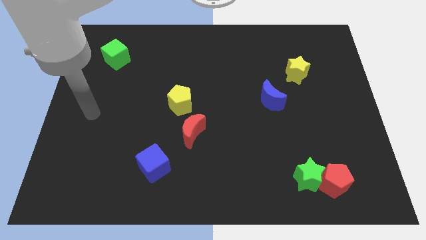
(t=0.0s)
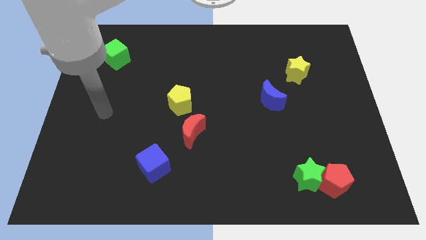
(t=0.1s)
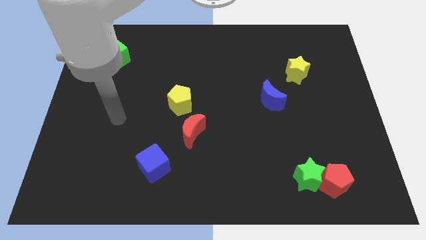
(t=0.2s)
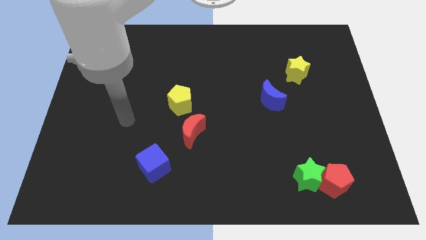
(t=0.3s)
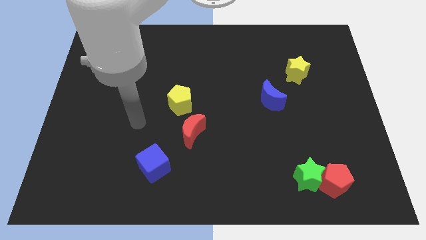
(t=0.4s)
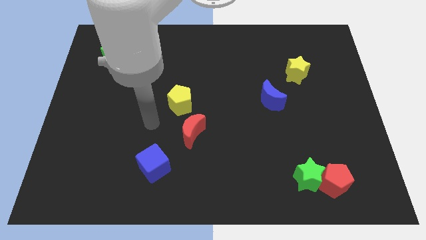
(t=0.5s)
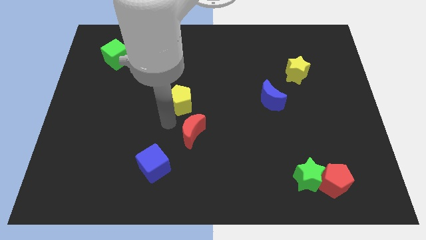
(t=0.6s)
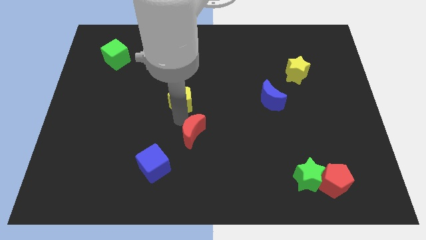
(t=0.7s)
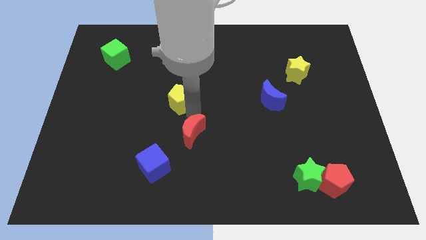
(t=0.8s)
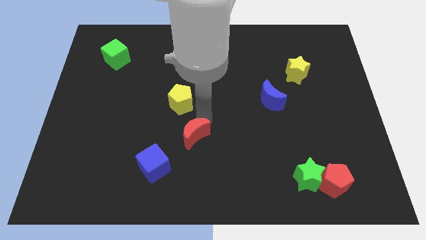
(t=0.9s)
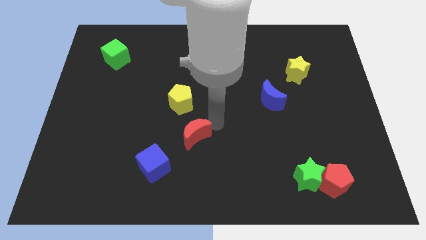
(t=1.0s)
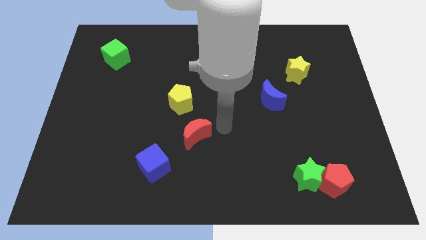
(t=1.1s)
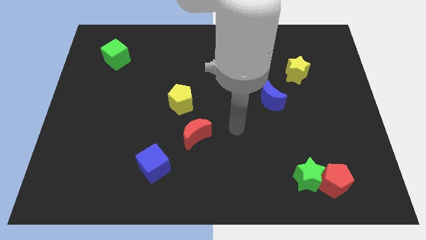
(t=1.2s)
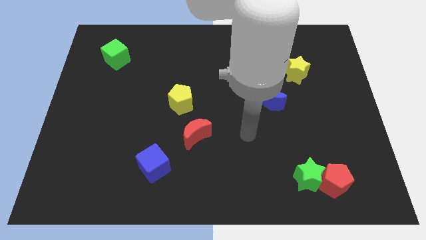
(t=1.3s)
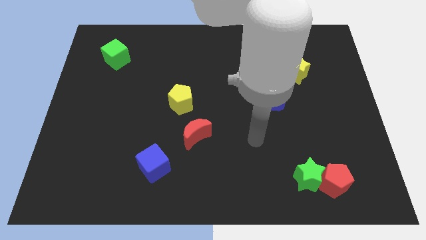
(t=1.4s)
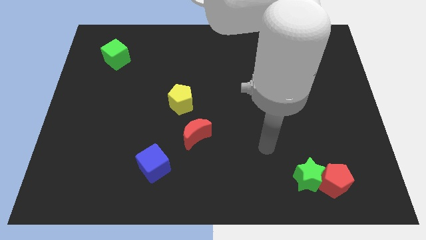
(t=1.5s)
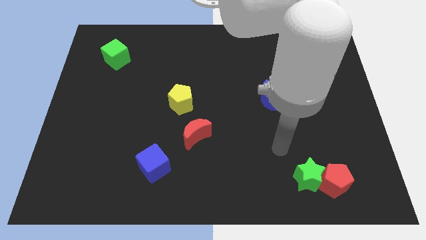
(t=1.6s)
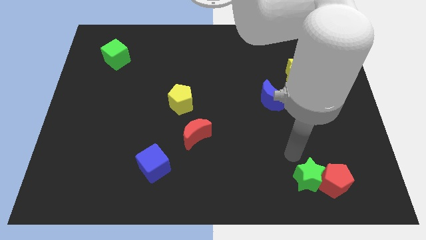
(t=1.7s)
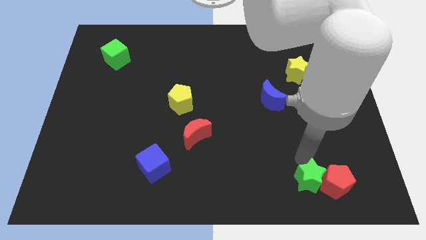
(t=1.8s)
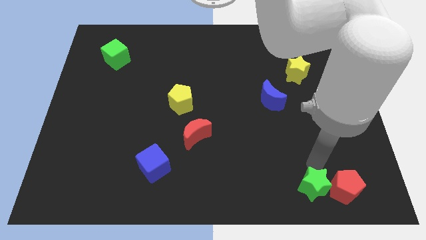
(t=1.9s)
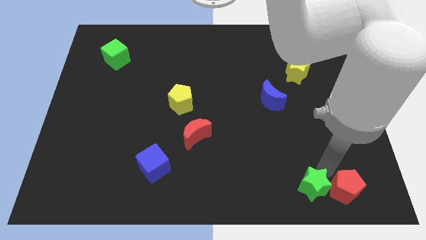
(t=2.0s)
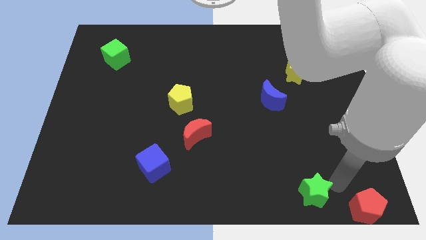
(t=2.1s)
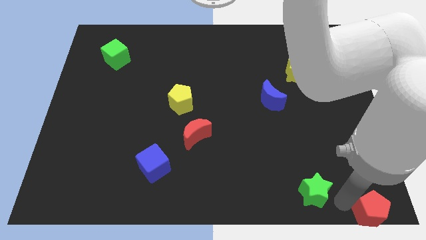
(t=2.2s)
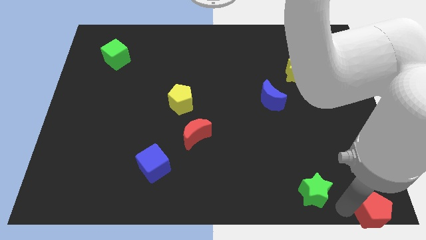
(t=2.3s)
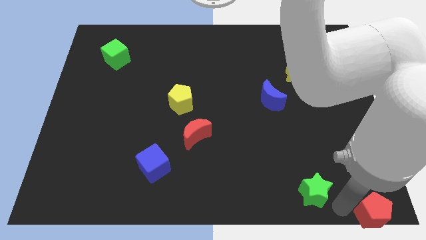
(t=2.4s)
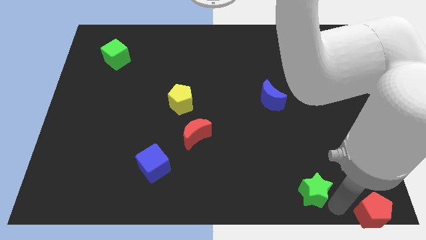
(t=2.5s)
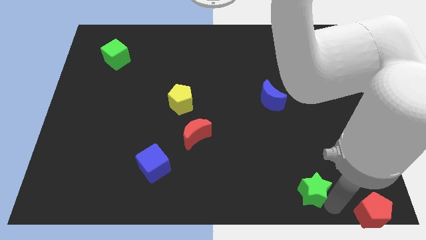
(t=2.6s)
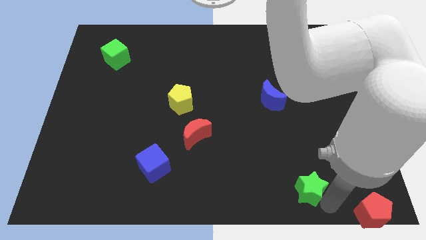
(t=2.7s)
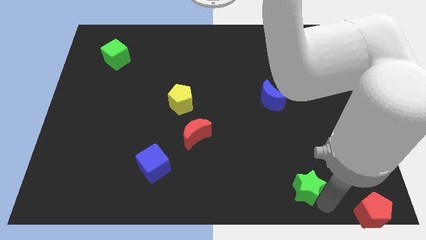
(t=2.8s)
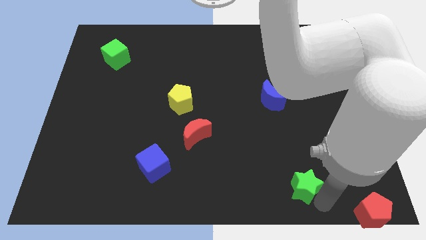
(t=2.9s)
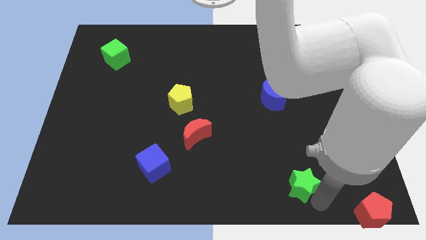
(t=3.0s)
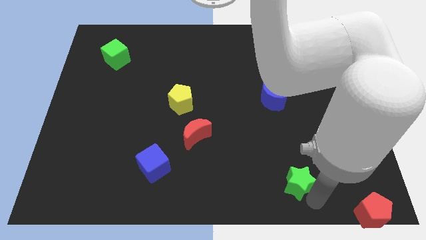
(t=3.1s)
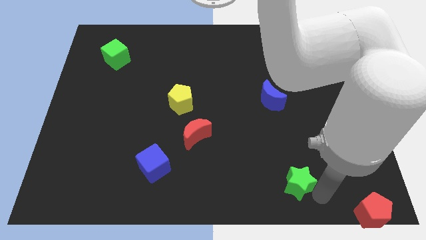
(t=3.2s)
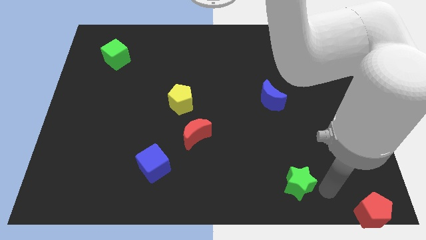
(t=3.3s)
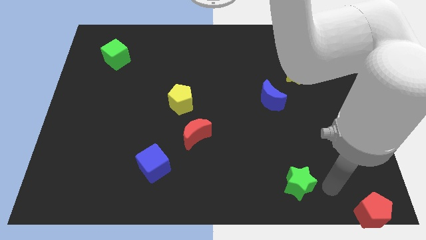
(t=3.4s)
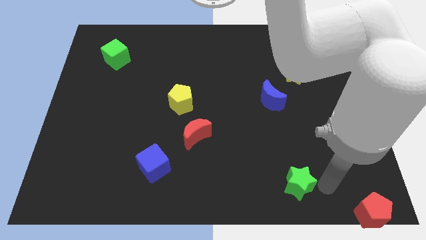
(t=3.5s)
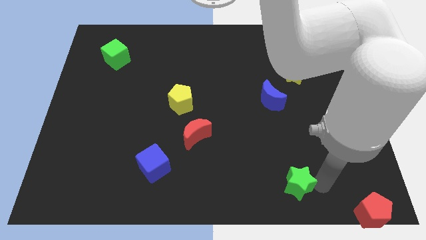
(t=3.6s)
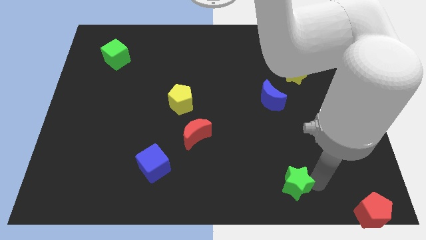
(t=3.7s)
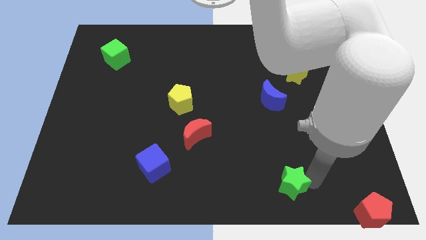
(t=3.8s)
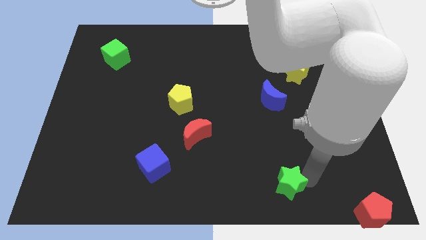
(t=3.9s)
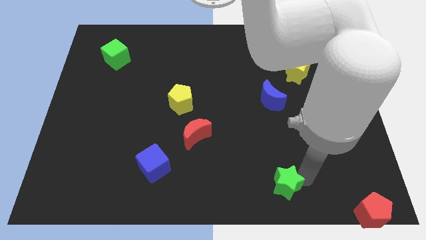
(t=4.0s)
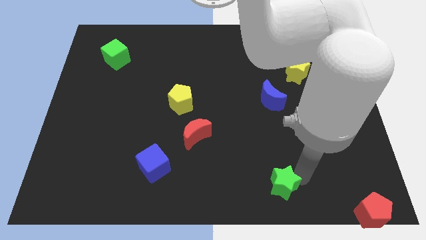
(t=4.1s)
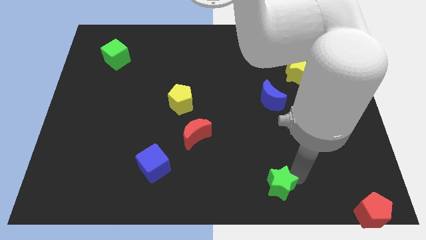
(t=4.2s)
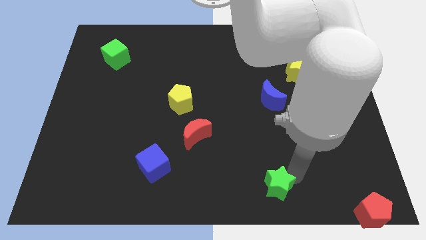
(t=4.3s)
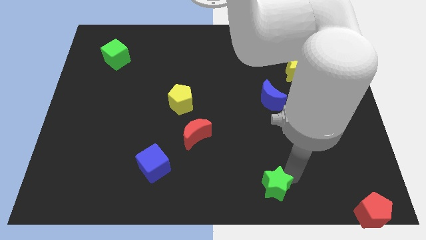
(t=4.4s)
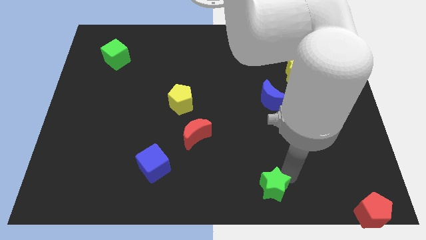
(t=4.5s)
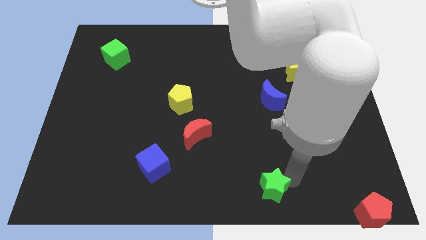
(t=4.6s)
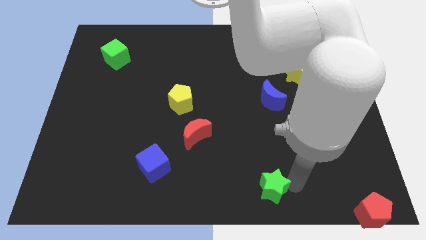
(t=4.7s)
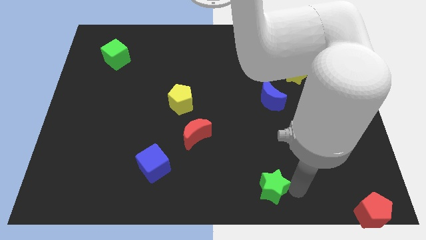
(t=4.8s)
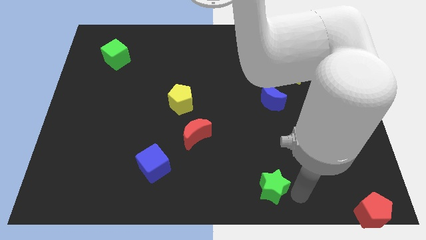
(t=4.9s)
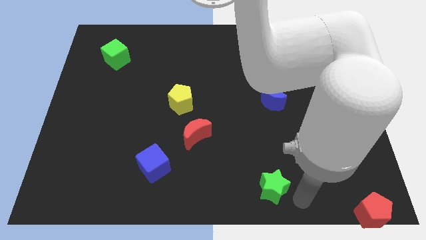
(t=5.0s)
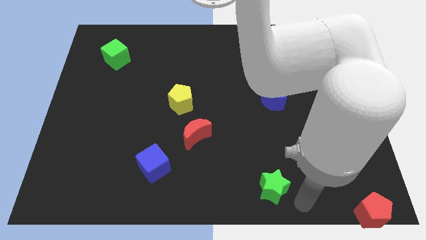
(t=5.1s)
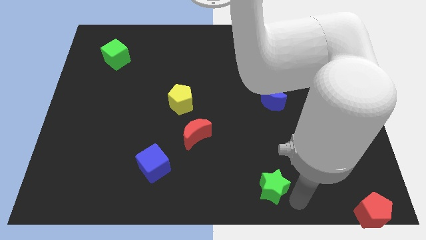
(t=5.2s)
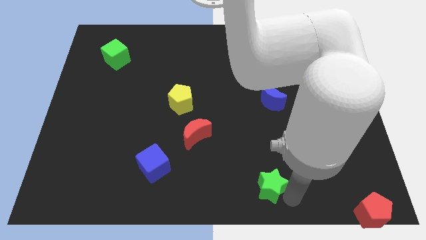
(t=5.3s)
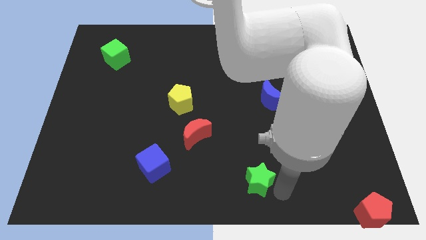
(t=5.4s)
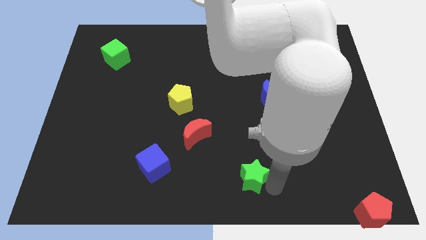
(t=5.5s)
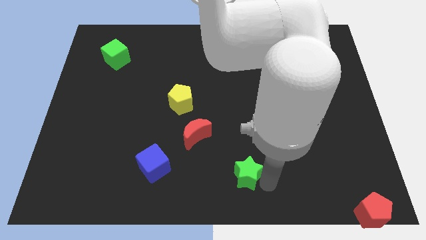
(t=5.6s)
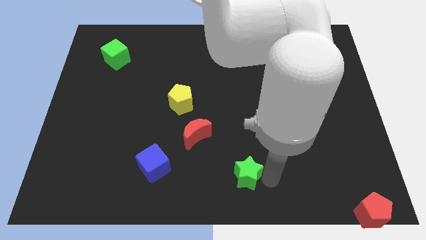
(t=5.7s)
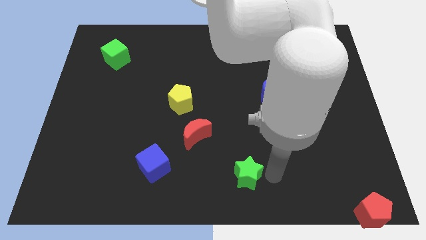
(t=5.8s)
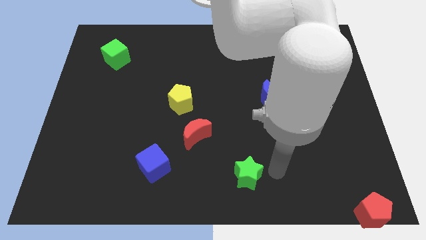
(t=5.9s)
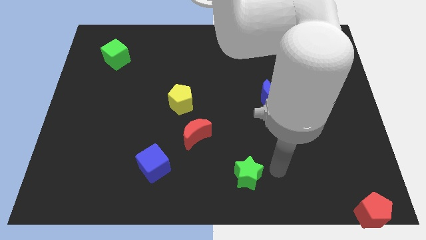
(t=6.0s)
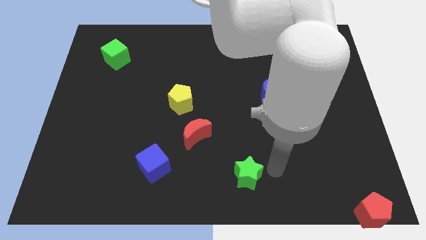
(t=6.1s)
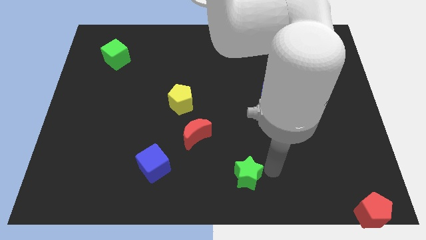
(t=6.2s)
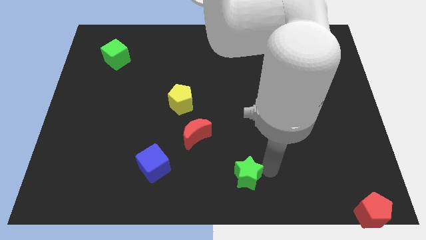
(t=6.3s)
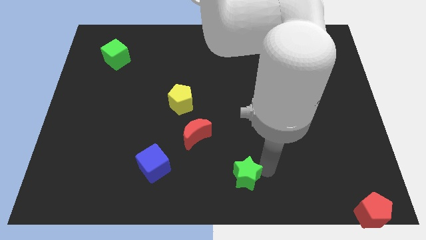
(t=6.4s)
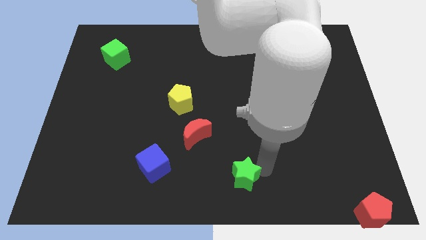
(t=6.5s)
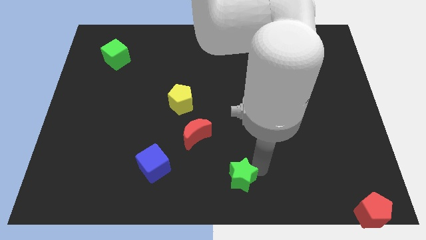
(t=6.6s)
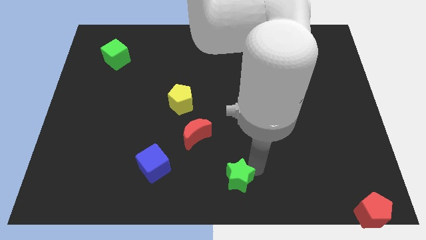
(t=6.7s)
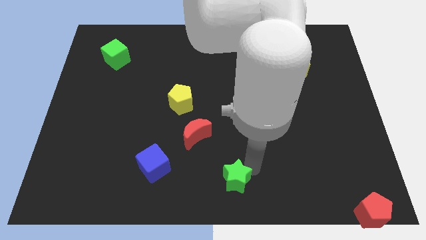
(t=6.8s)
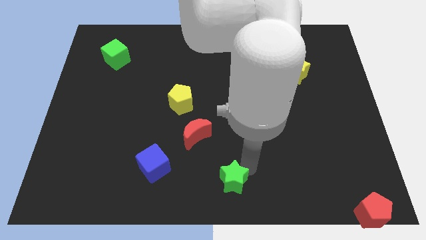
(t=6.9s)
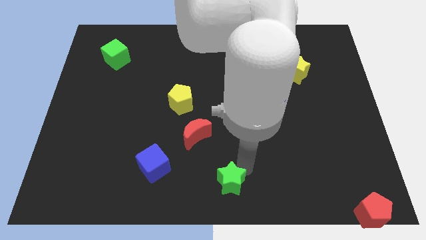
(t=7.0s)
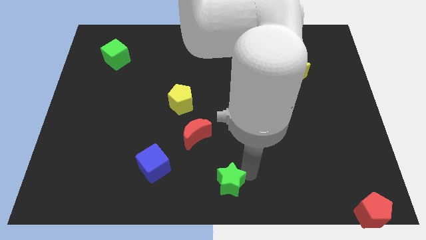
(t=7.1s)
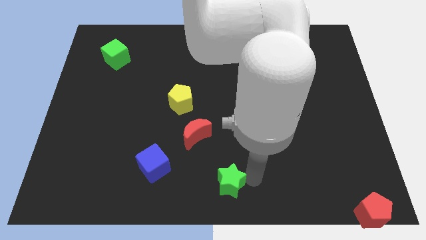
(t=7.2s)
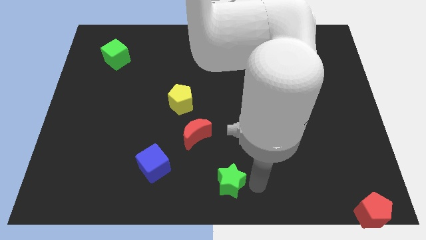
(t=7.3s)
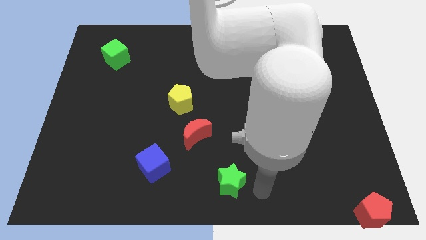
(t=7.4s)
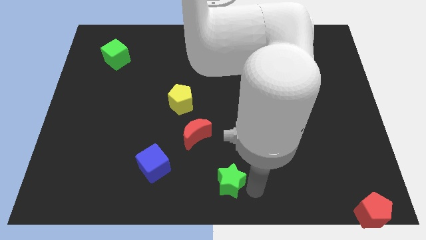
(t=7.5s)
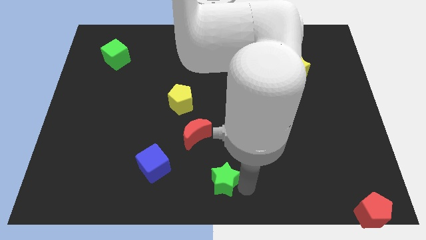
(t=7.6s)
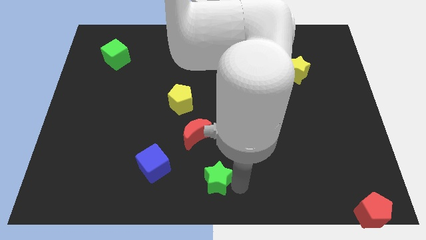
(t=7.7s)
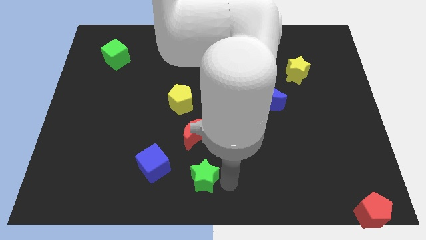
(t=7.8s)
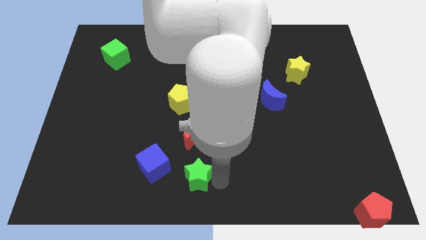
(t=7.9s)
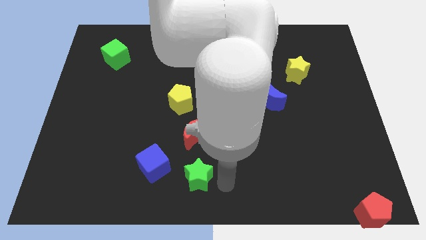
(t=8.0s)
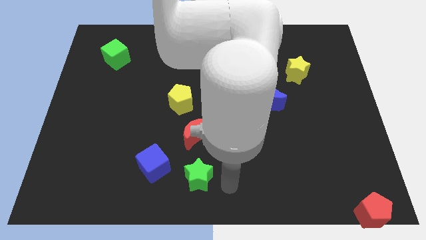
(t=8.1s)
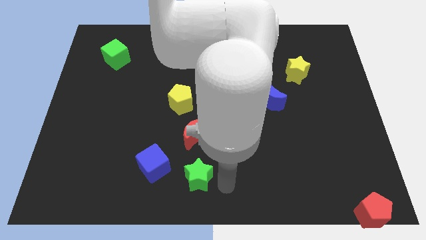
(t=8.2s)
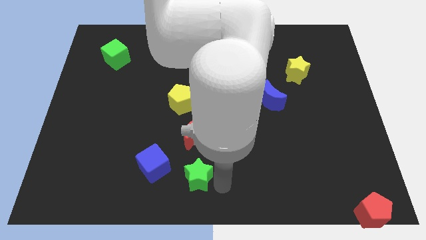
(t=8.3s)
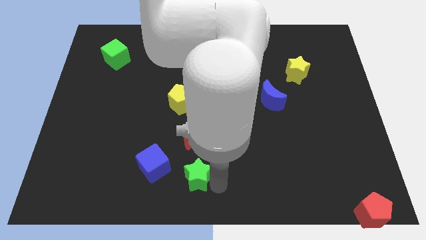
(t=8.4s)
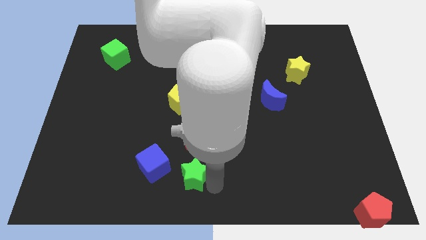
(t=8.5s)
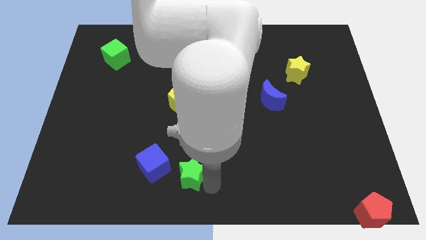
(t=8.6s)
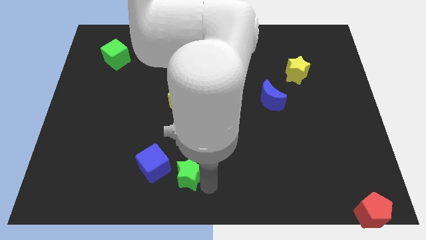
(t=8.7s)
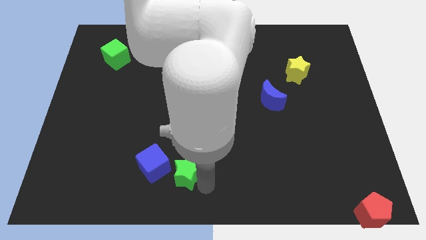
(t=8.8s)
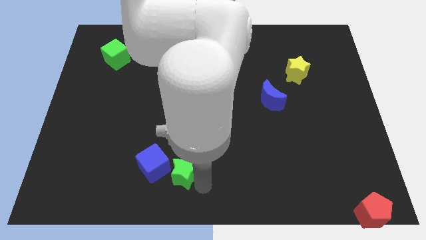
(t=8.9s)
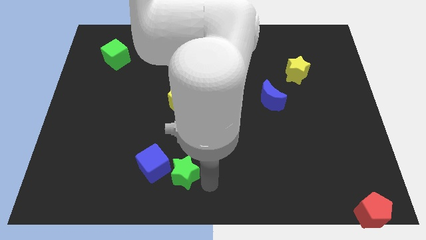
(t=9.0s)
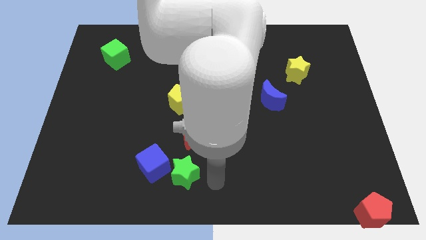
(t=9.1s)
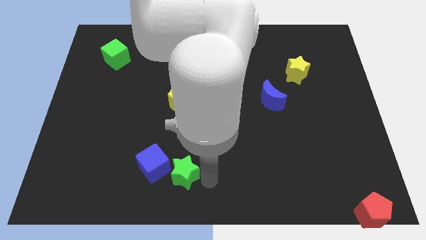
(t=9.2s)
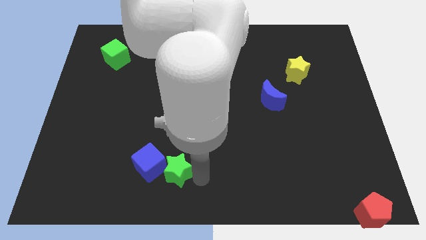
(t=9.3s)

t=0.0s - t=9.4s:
slide the green star to the blue cube
